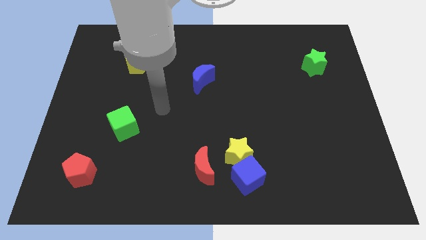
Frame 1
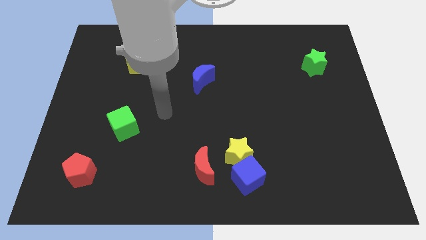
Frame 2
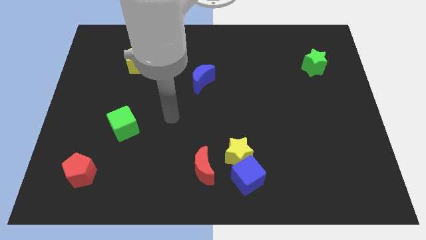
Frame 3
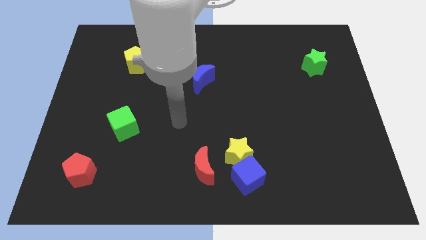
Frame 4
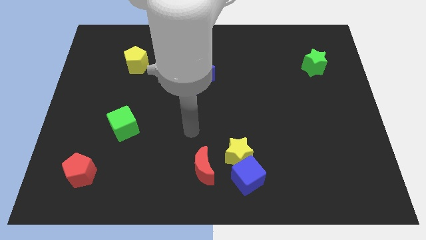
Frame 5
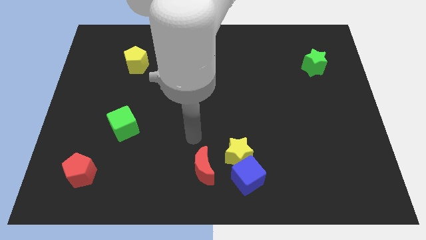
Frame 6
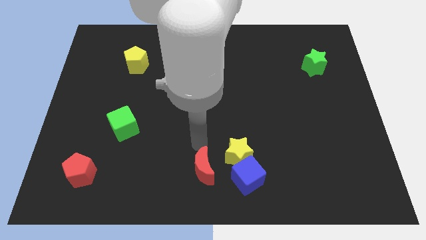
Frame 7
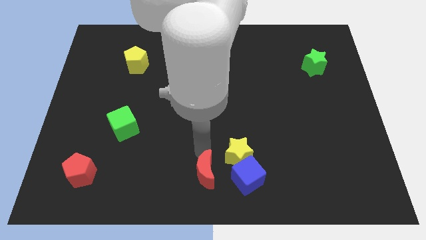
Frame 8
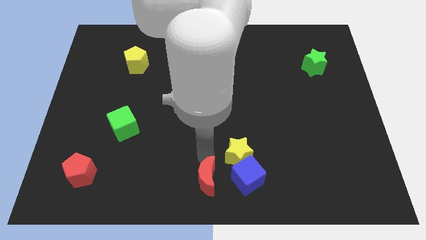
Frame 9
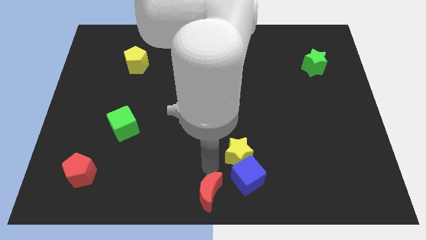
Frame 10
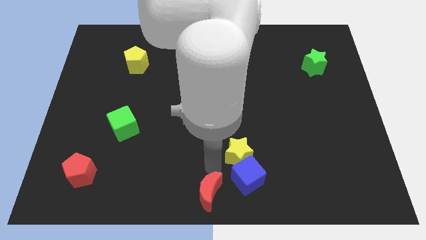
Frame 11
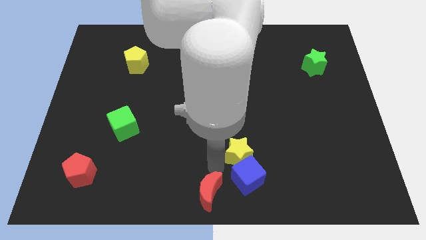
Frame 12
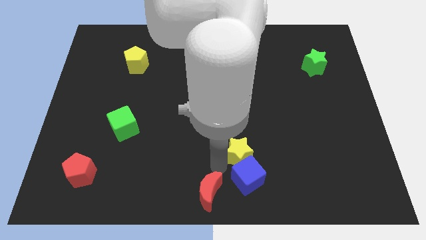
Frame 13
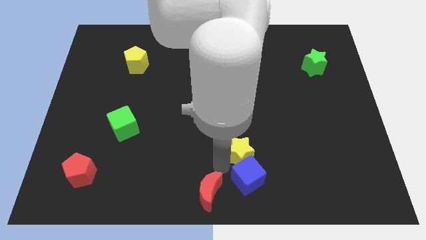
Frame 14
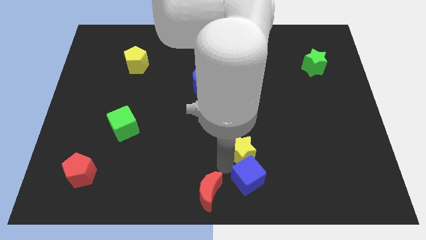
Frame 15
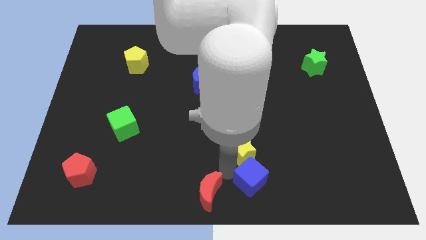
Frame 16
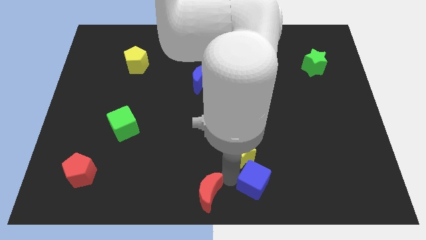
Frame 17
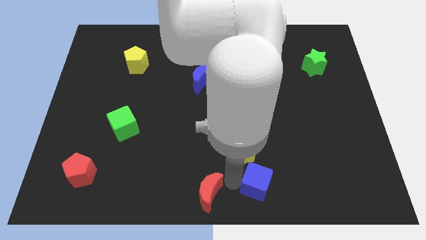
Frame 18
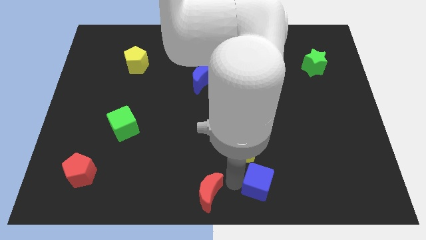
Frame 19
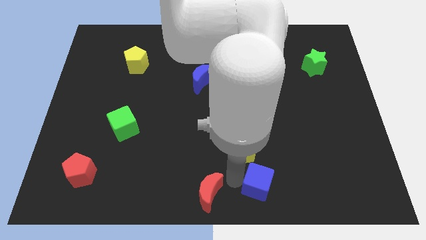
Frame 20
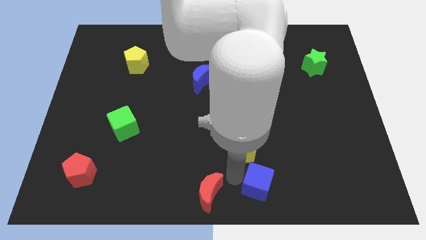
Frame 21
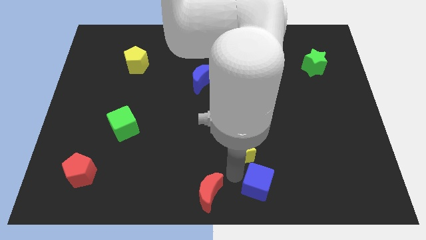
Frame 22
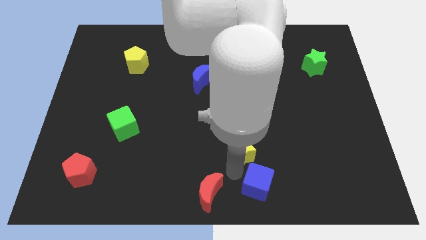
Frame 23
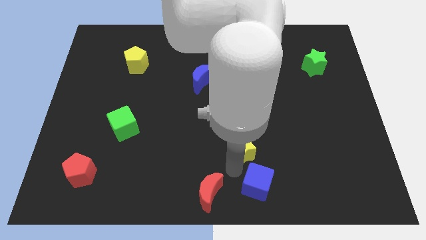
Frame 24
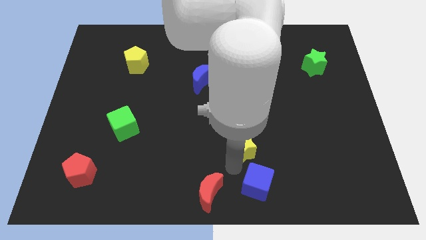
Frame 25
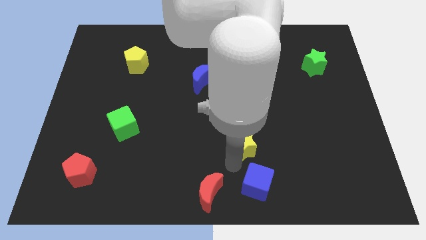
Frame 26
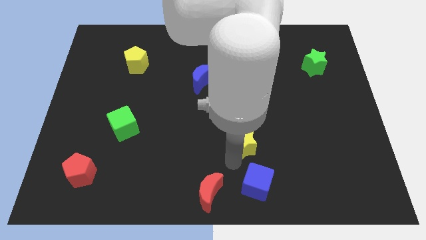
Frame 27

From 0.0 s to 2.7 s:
separate the yellow star from the blue cube and red moon

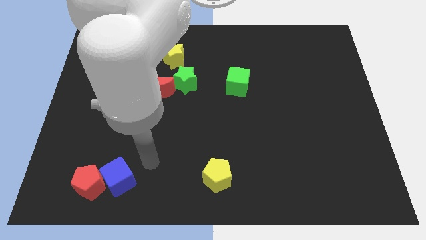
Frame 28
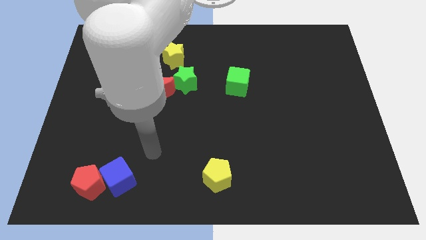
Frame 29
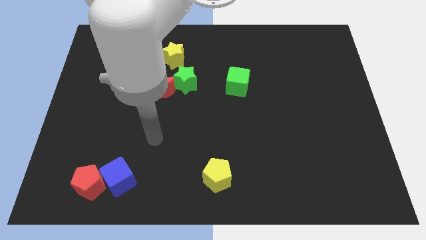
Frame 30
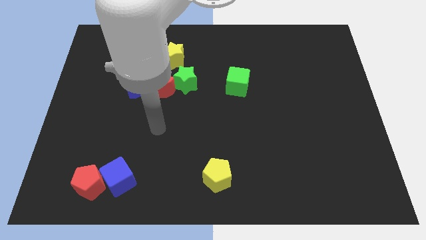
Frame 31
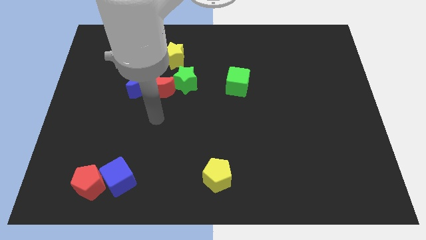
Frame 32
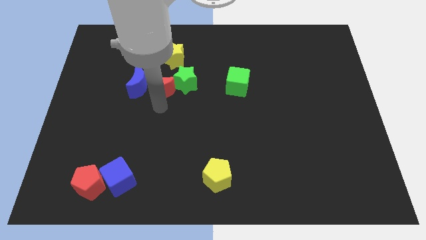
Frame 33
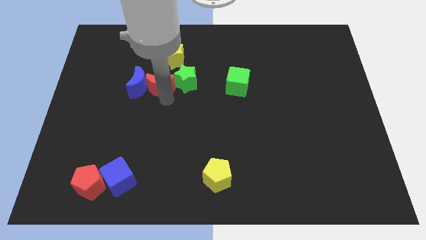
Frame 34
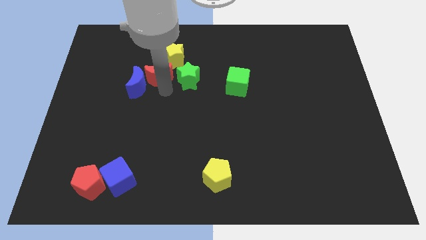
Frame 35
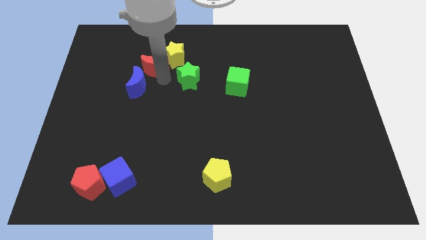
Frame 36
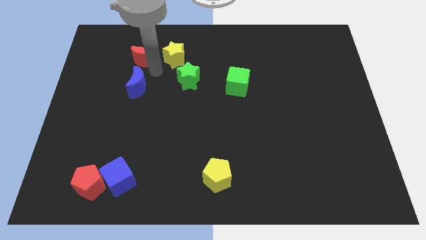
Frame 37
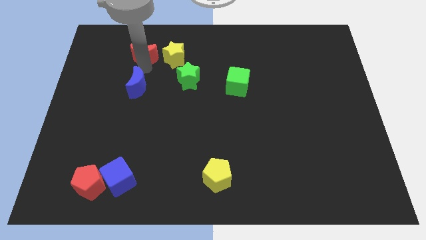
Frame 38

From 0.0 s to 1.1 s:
move the blue moon away from the red moon

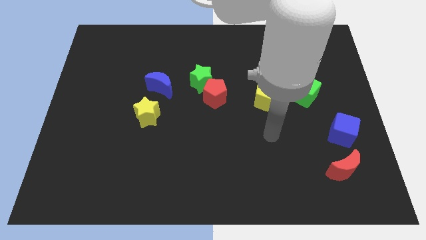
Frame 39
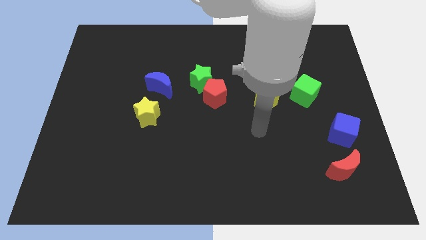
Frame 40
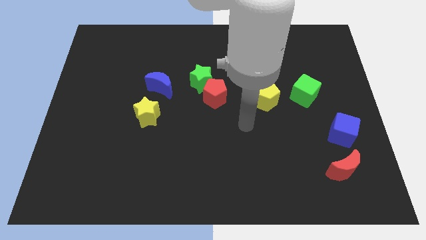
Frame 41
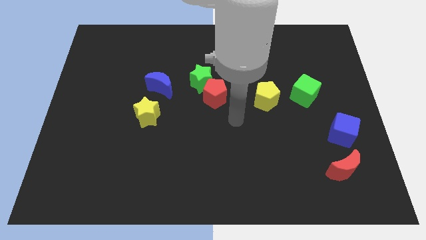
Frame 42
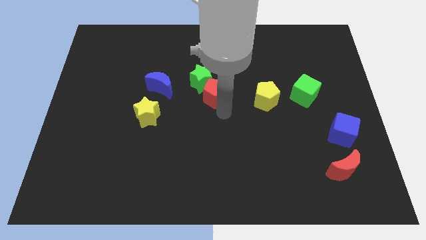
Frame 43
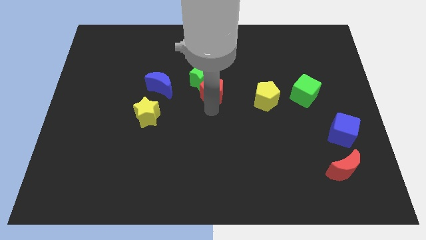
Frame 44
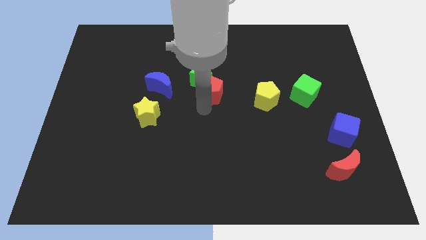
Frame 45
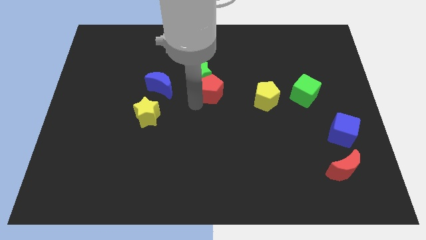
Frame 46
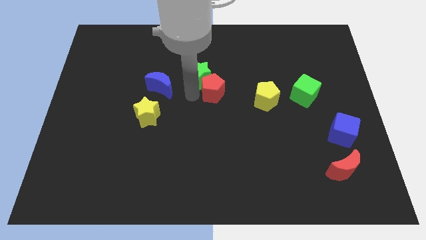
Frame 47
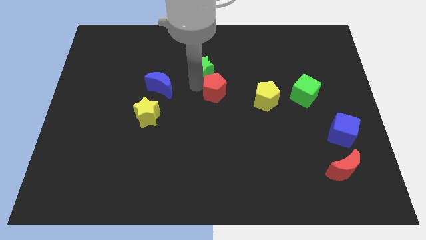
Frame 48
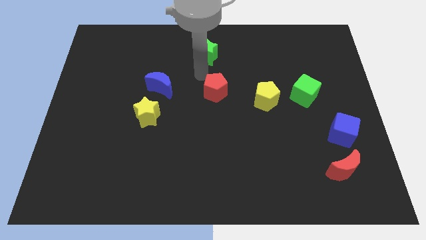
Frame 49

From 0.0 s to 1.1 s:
pull the red pentagon apart from the green star

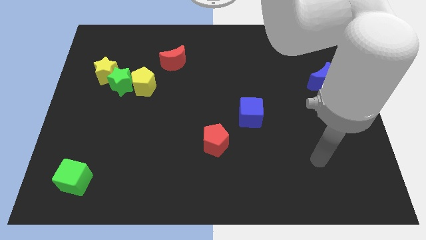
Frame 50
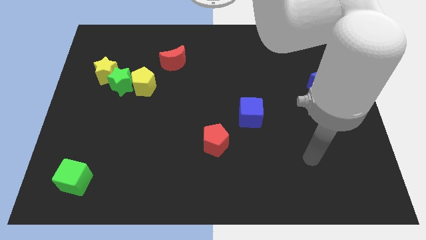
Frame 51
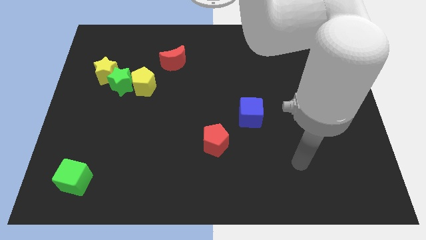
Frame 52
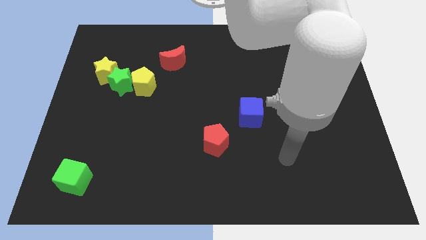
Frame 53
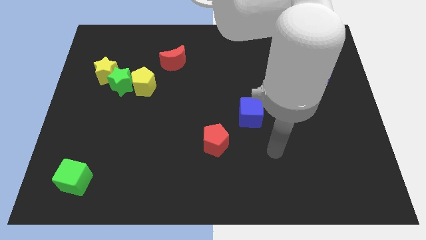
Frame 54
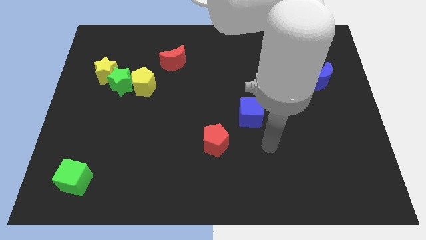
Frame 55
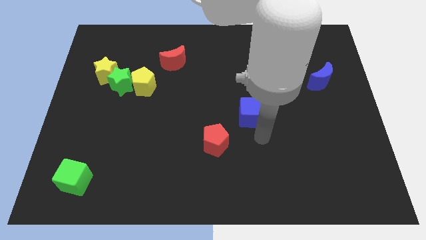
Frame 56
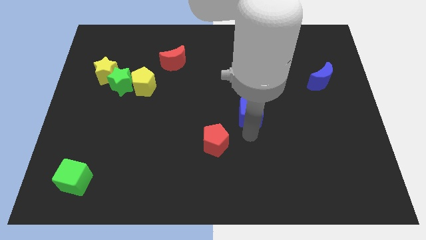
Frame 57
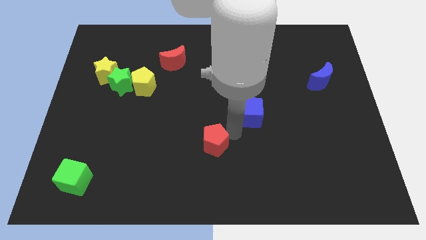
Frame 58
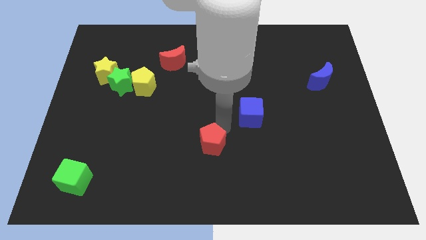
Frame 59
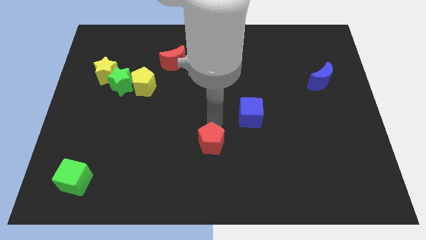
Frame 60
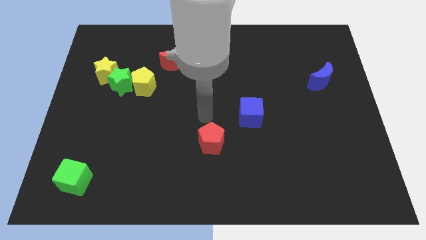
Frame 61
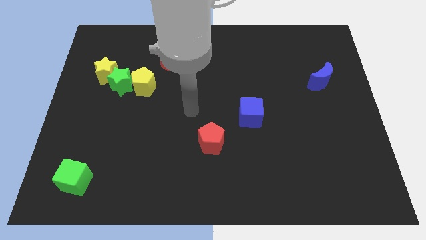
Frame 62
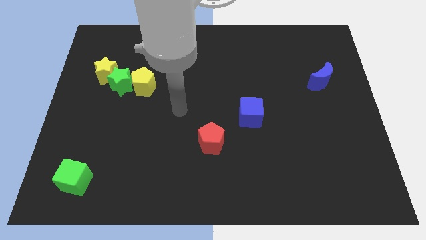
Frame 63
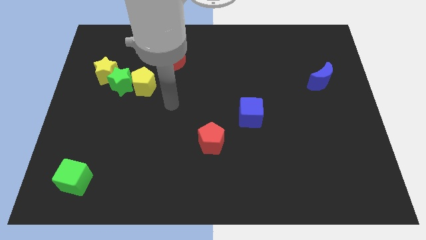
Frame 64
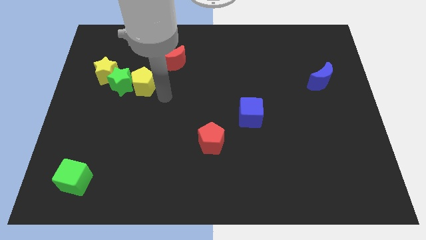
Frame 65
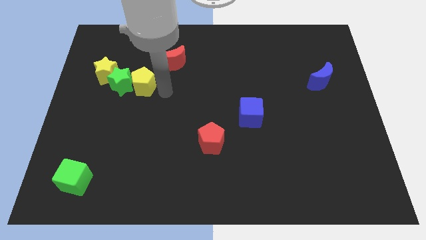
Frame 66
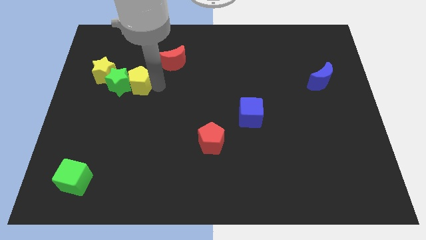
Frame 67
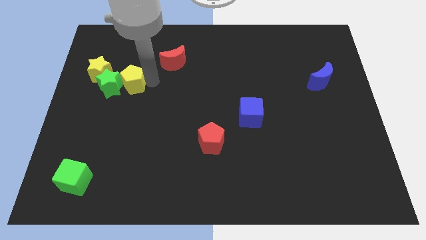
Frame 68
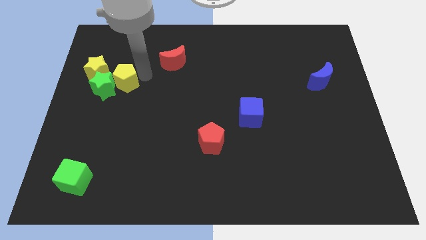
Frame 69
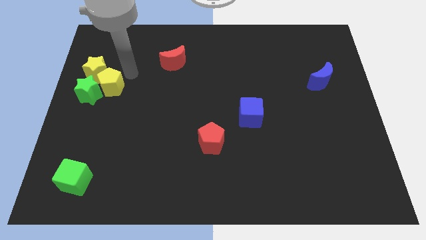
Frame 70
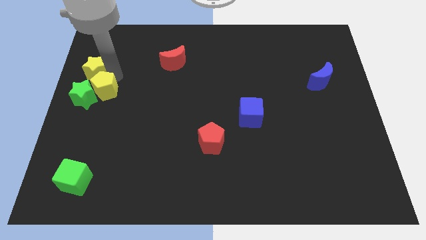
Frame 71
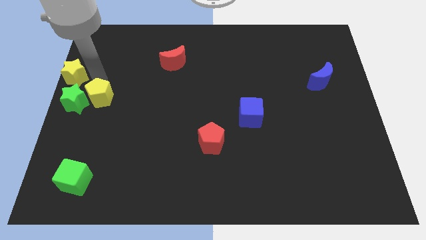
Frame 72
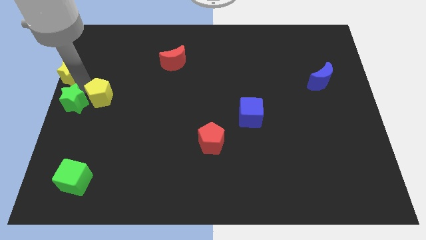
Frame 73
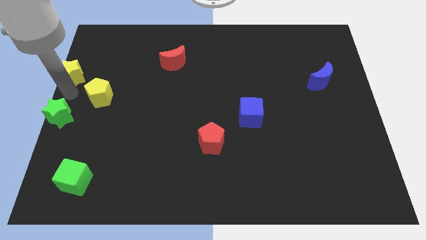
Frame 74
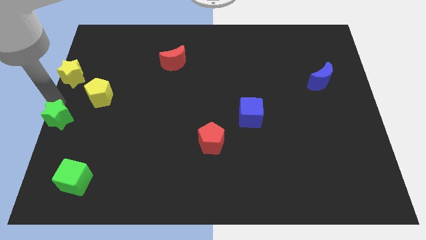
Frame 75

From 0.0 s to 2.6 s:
move the green star away from the yellow pentagon and yellow star

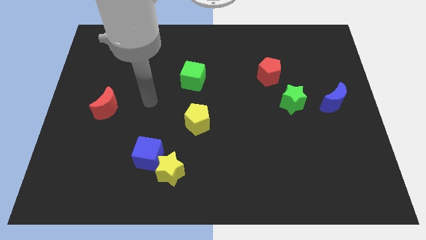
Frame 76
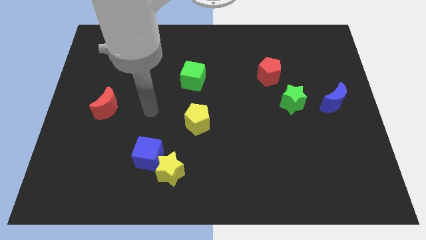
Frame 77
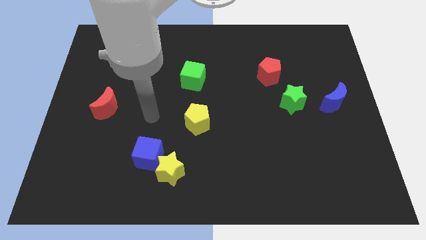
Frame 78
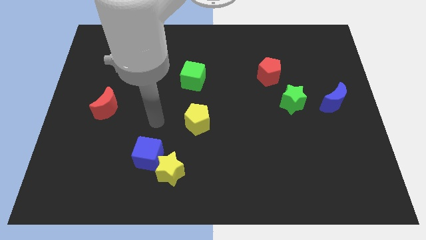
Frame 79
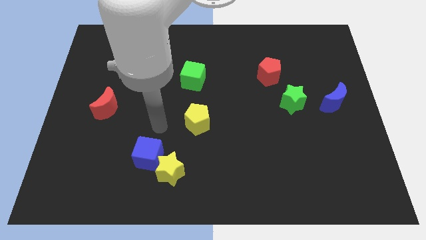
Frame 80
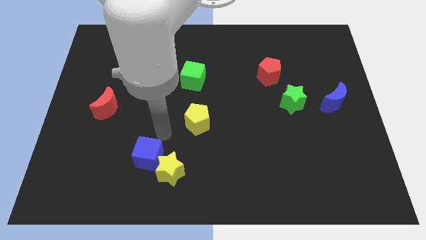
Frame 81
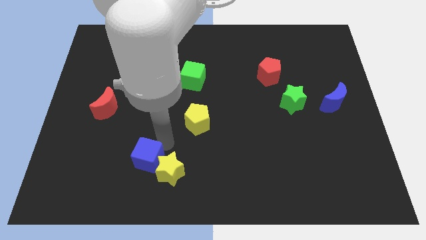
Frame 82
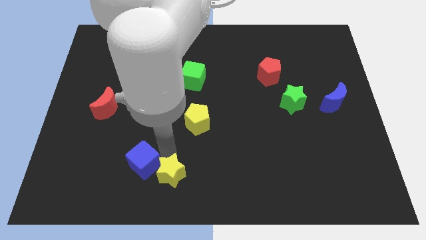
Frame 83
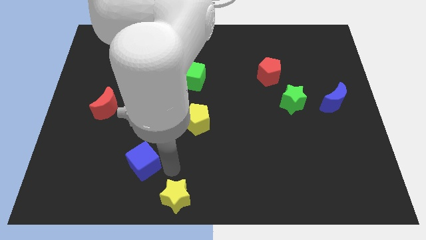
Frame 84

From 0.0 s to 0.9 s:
pull the blue cube apart from the yellow star

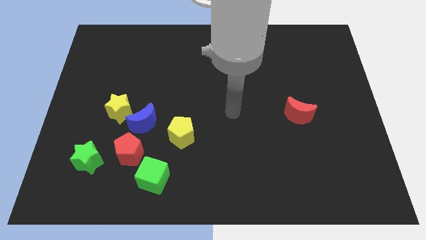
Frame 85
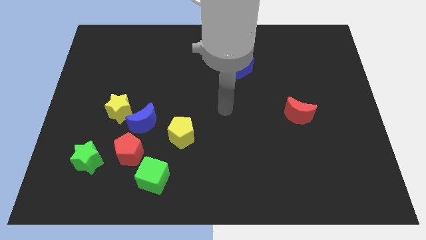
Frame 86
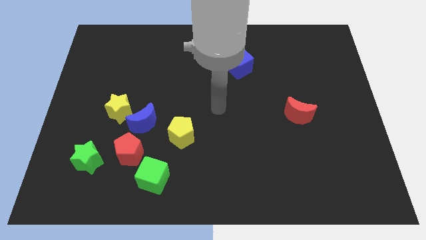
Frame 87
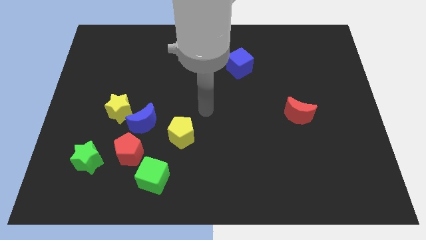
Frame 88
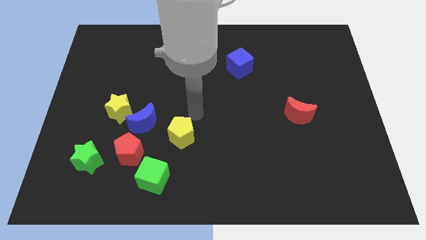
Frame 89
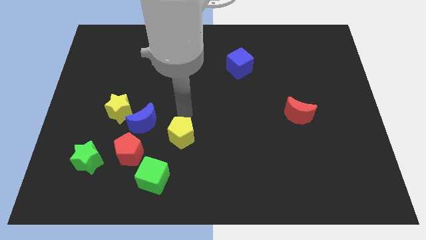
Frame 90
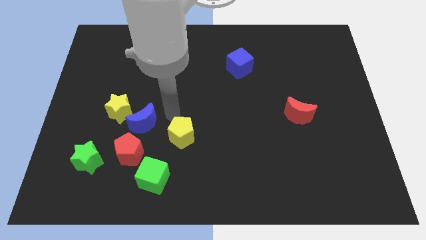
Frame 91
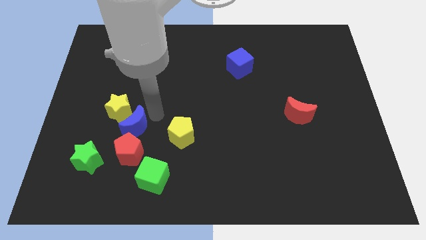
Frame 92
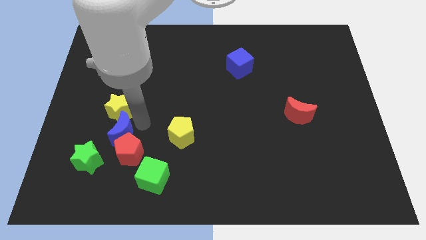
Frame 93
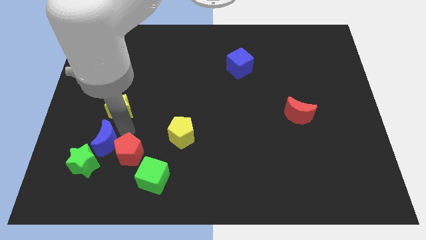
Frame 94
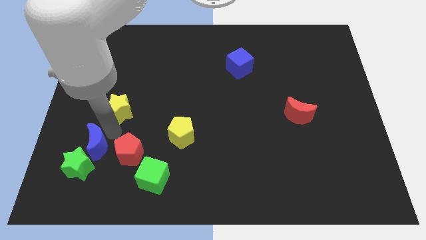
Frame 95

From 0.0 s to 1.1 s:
move the yellow star away from the blue moon
